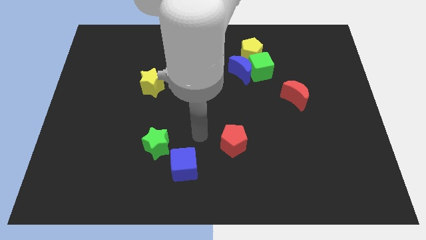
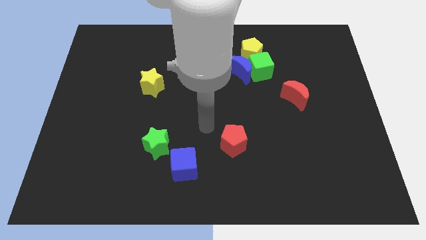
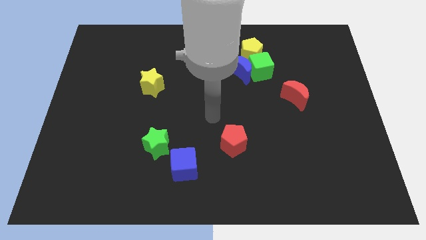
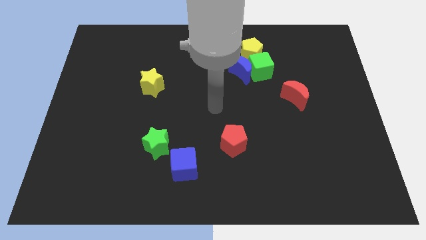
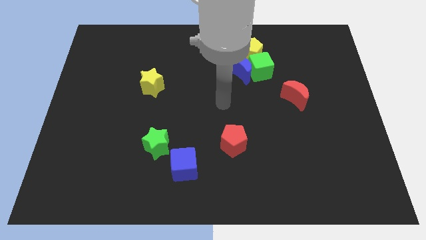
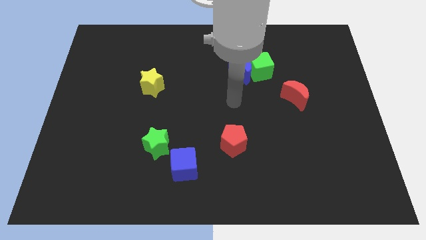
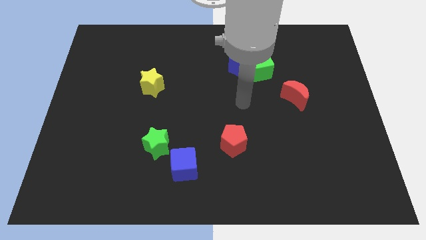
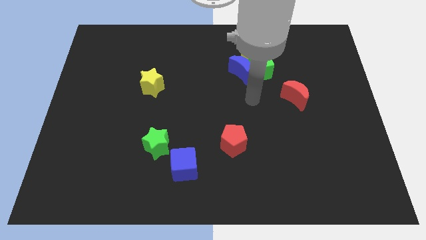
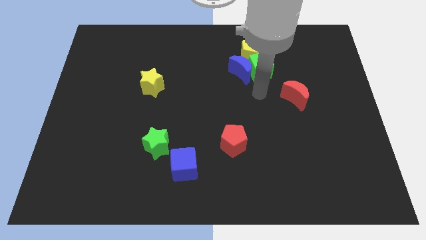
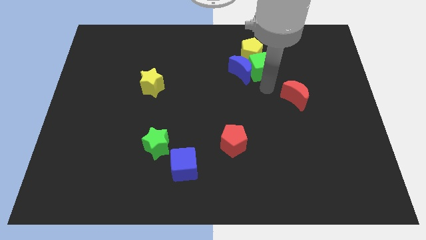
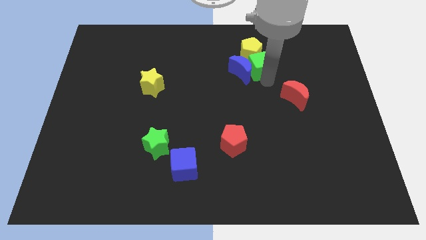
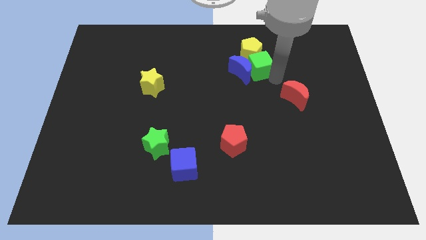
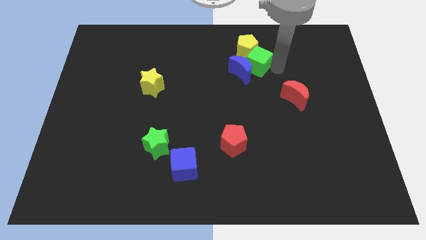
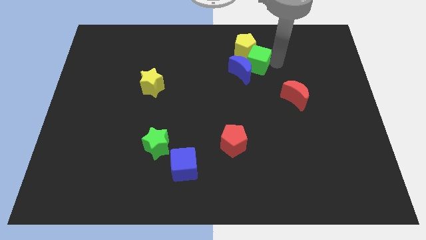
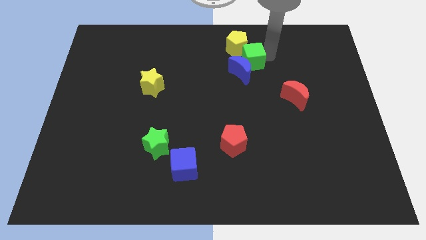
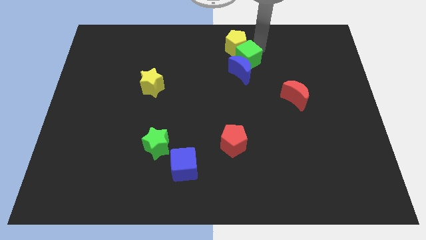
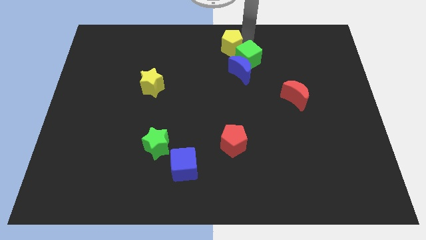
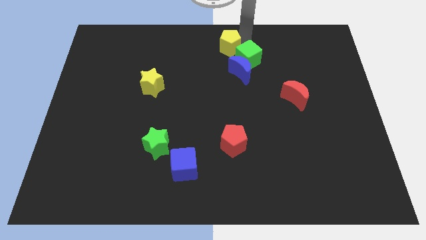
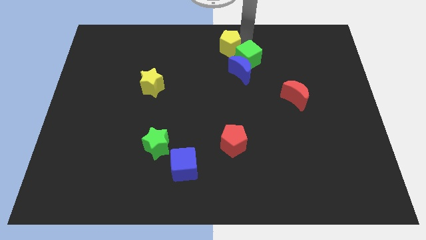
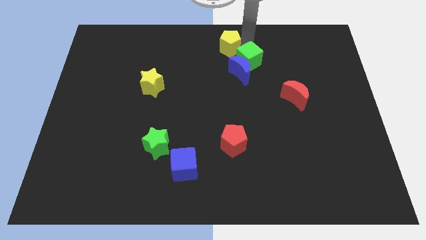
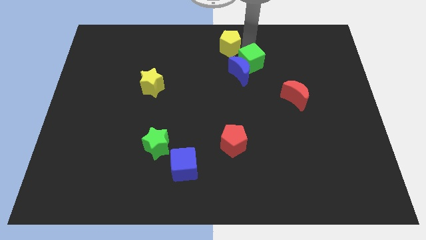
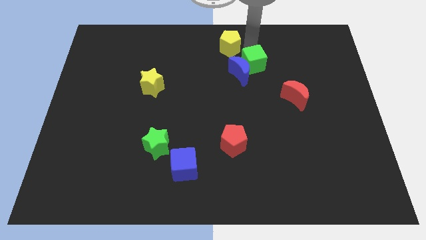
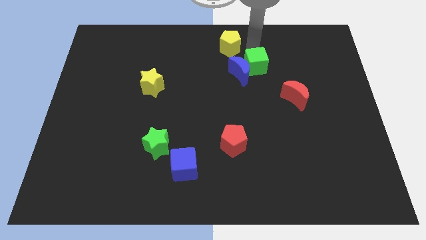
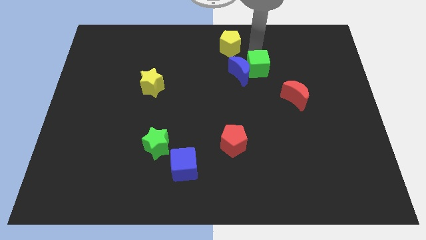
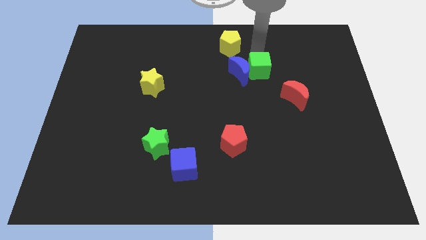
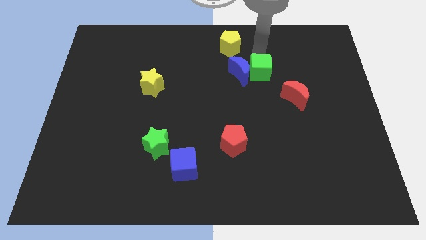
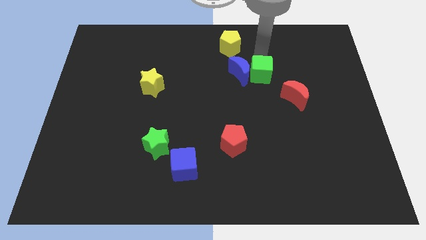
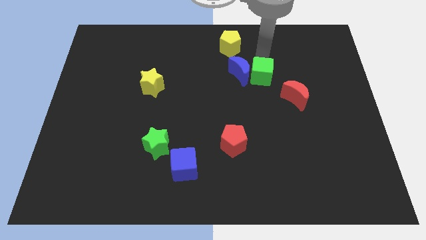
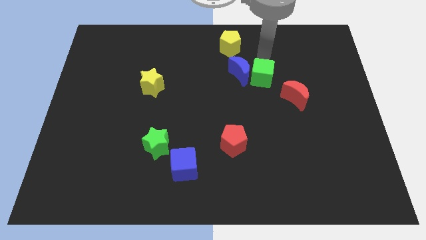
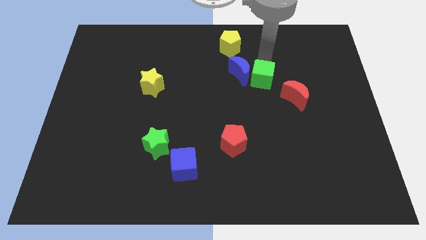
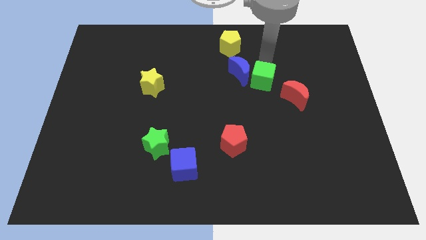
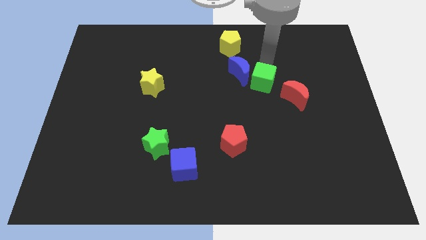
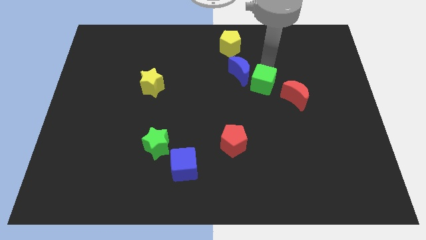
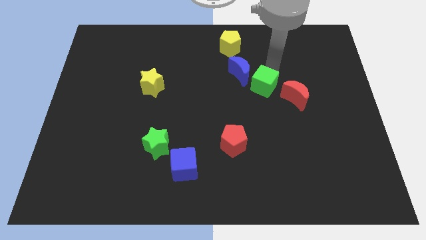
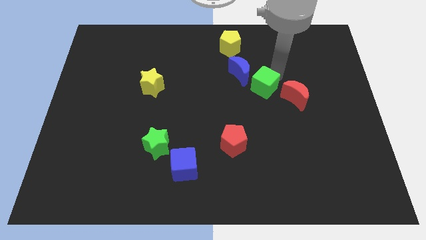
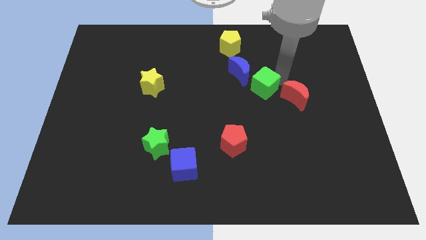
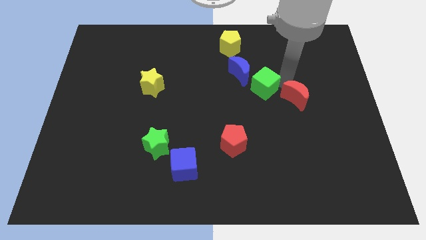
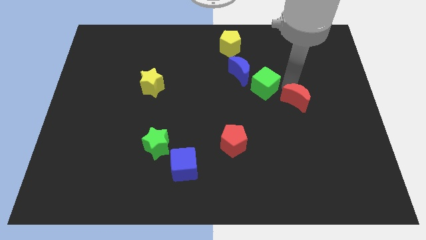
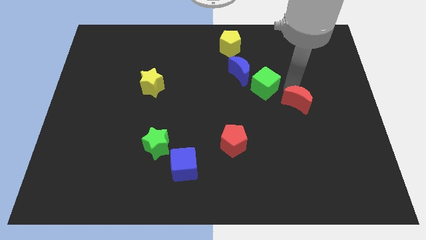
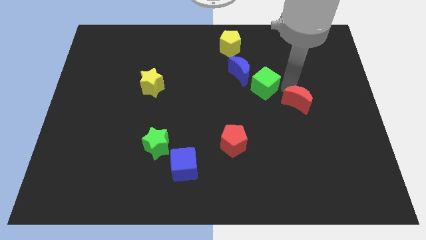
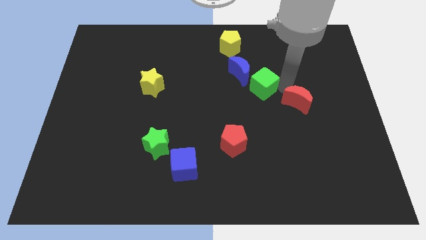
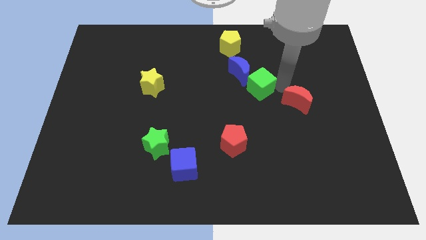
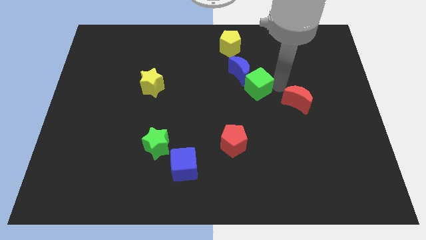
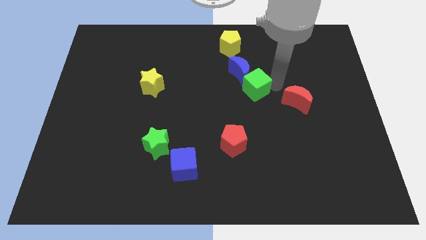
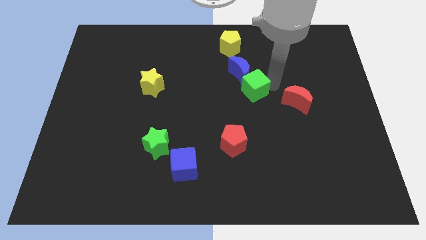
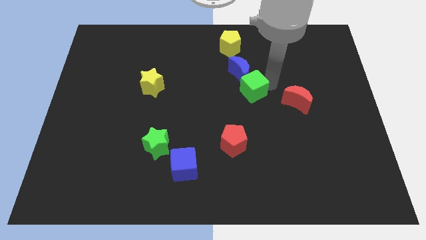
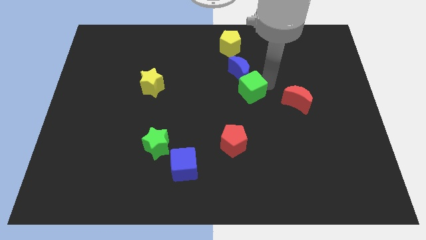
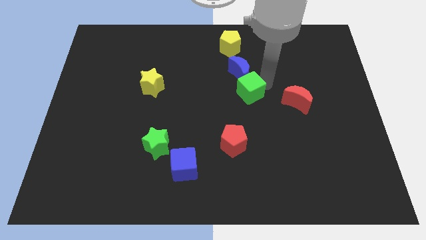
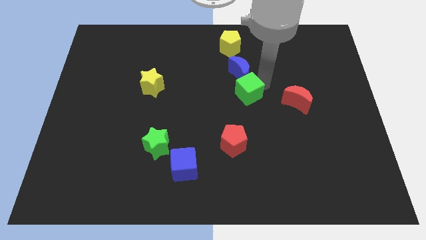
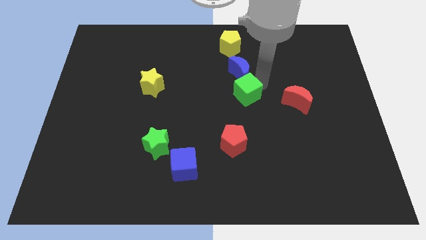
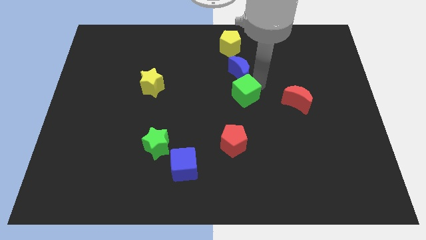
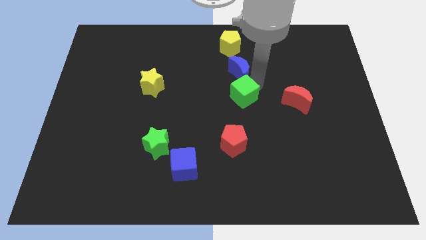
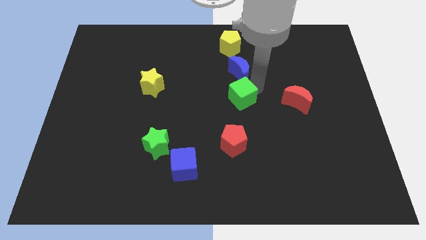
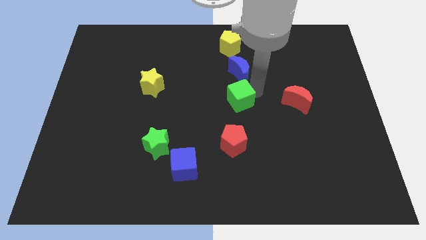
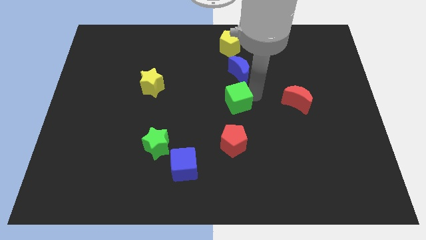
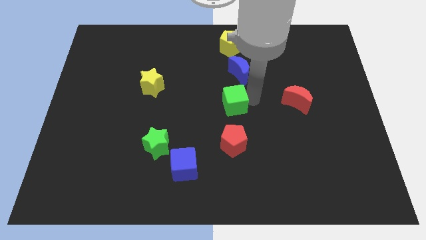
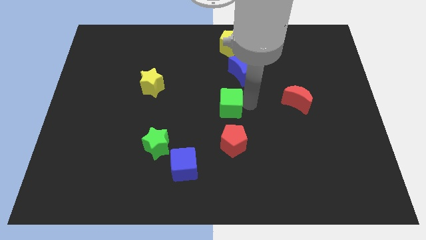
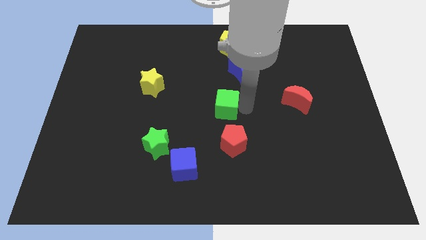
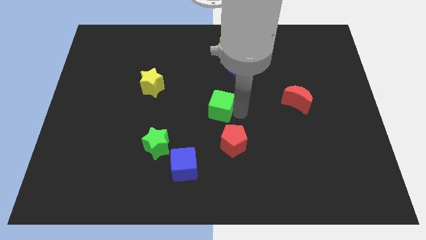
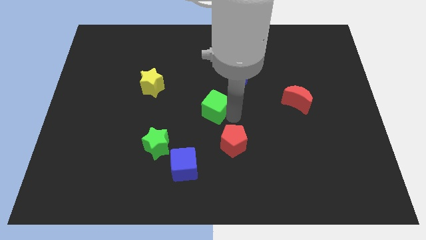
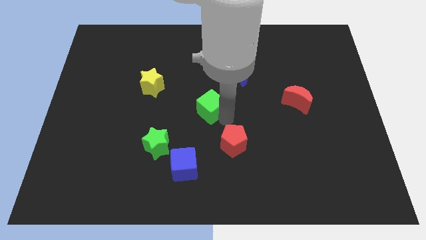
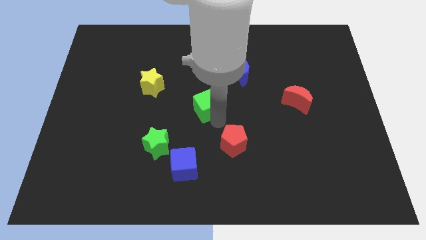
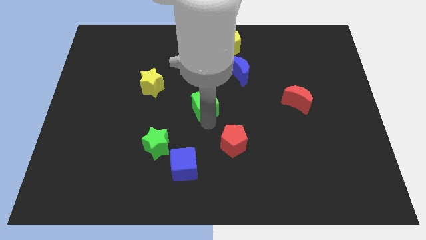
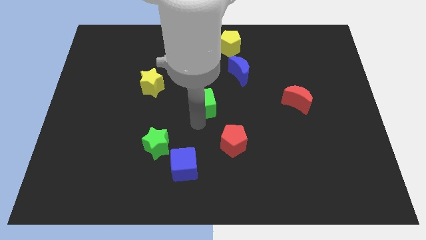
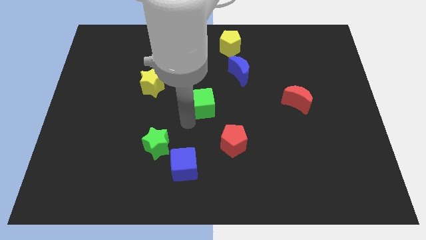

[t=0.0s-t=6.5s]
push the green cube to the left slightly

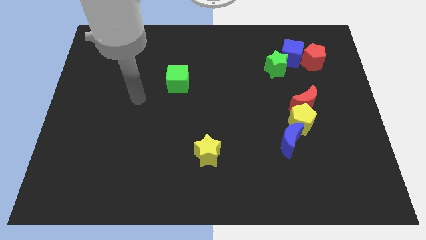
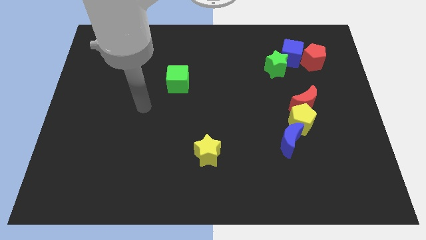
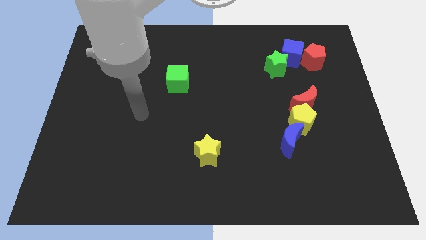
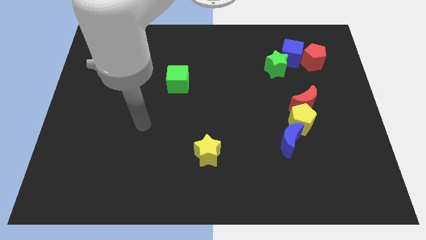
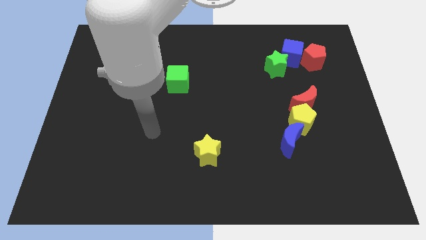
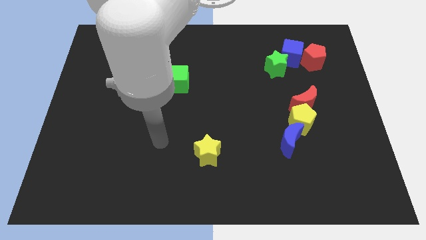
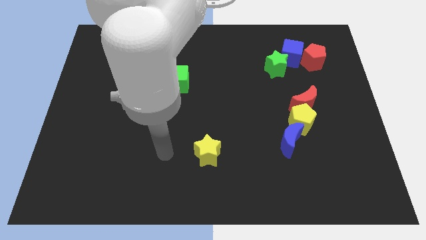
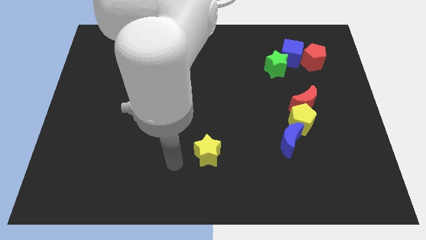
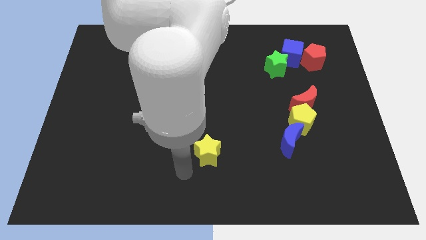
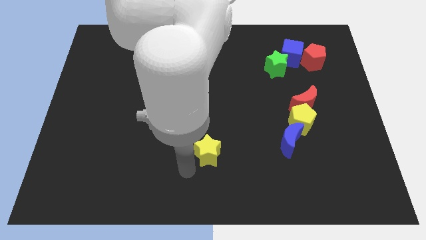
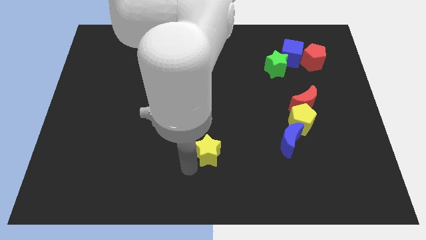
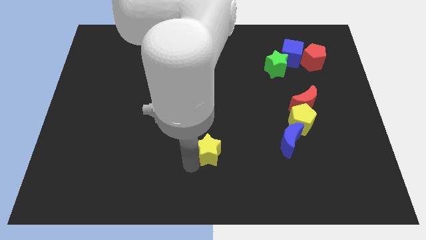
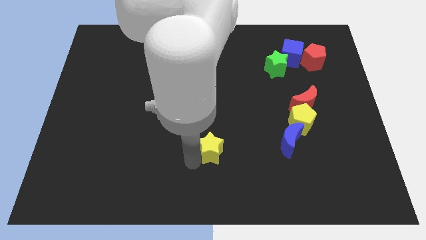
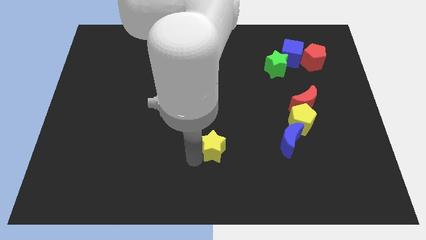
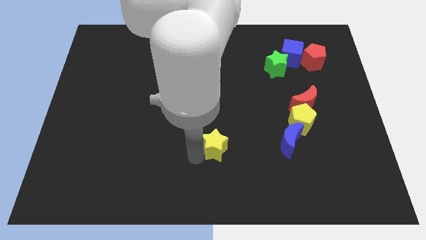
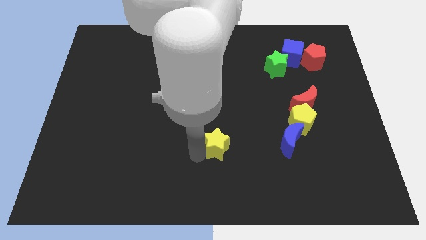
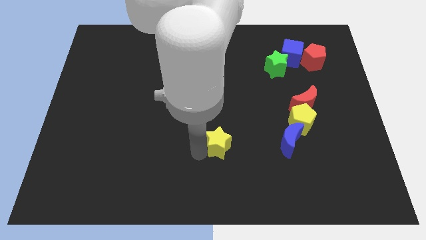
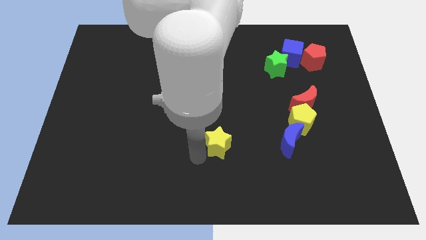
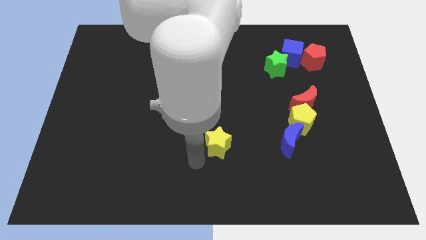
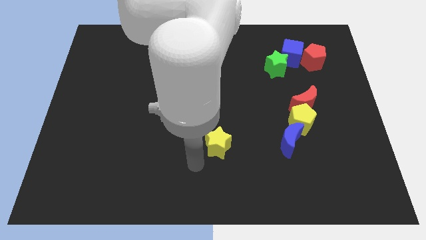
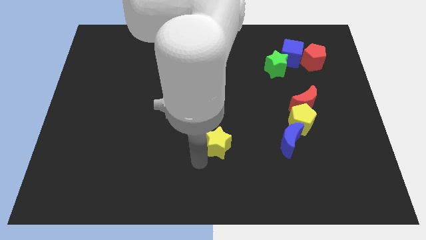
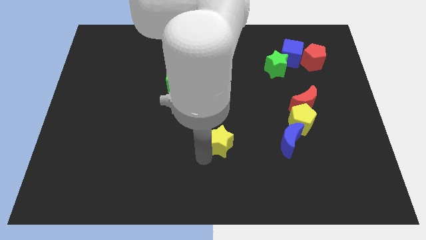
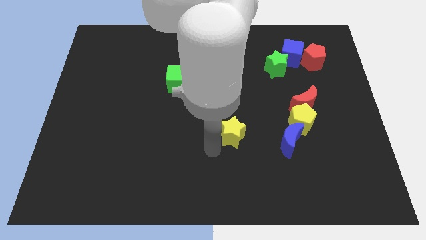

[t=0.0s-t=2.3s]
slide the yellow star up and then to the right somewhat
